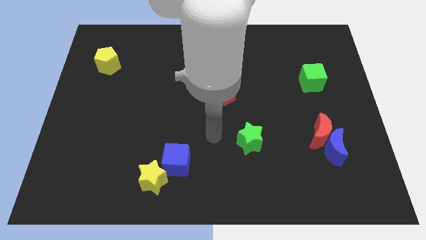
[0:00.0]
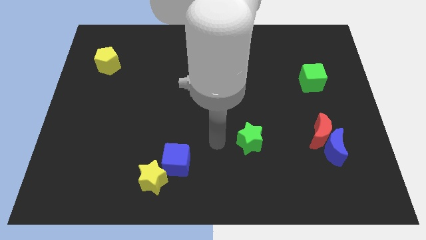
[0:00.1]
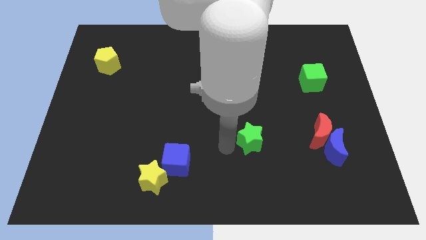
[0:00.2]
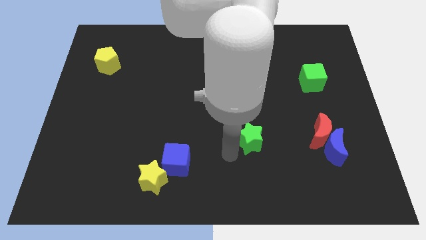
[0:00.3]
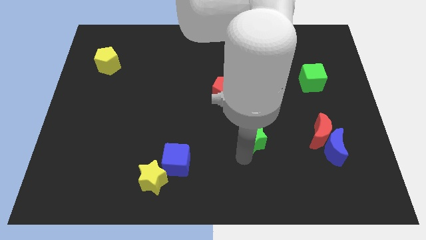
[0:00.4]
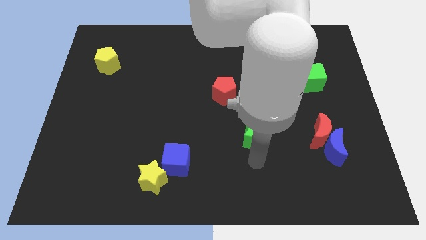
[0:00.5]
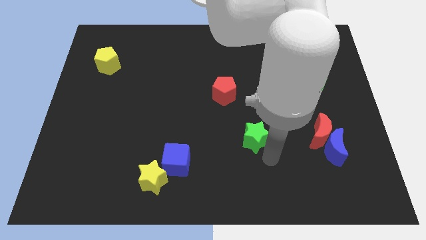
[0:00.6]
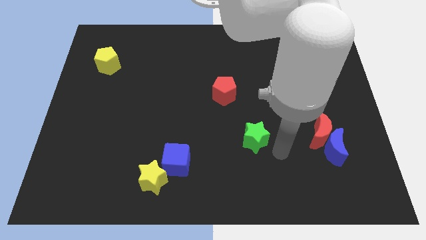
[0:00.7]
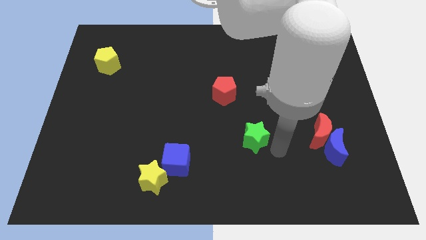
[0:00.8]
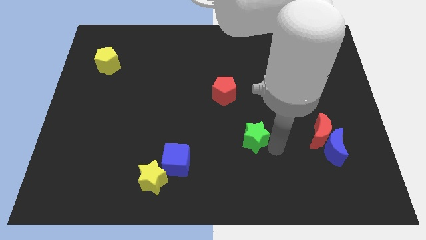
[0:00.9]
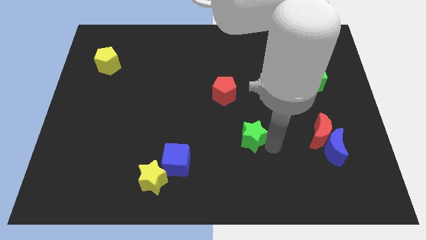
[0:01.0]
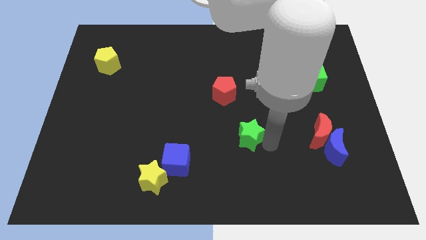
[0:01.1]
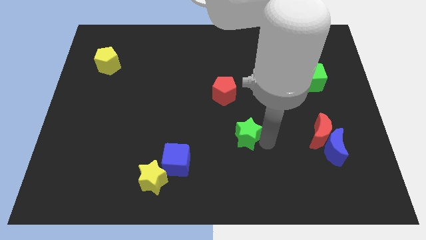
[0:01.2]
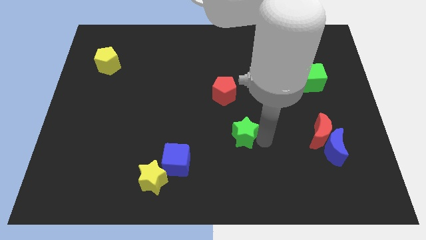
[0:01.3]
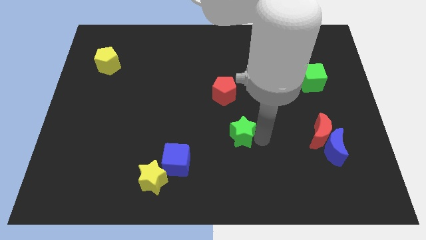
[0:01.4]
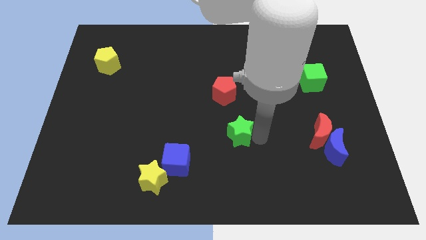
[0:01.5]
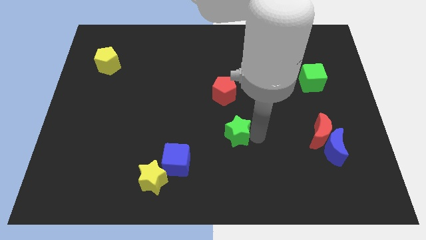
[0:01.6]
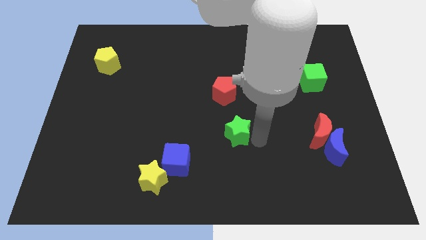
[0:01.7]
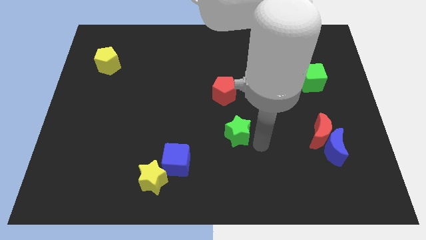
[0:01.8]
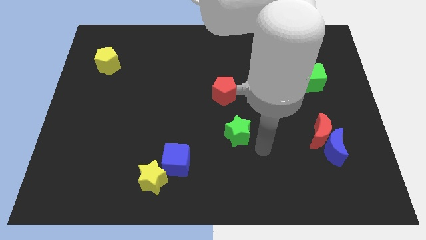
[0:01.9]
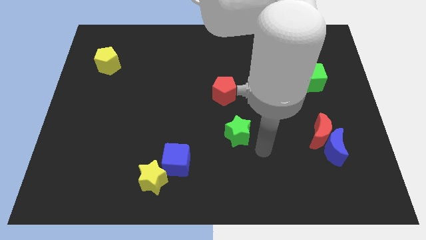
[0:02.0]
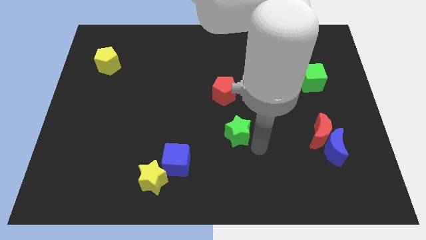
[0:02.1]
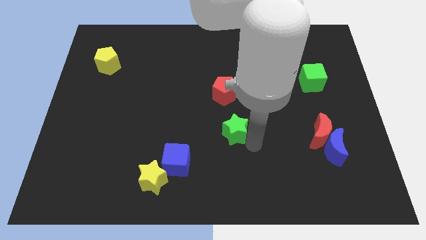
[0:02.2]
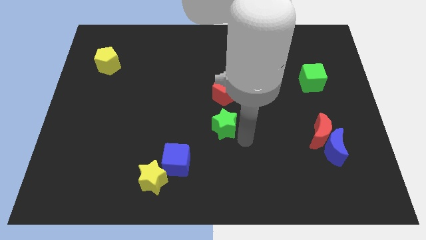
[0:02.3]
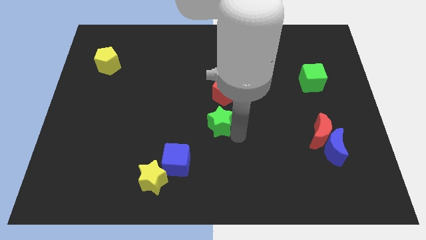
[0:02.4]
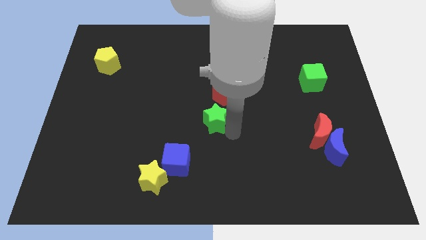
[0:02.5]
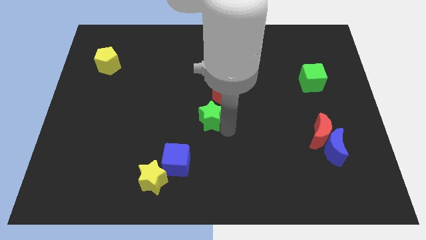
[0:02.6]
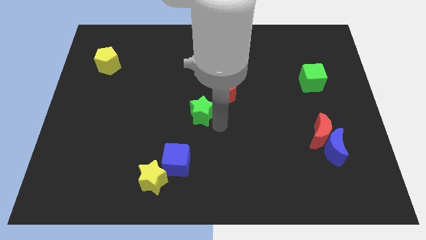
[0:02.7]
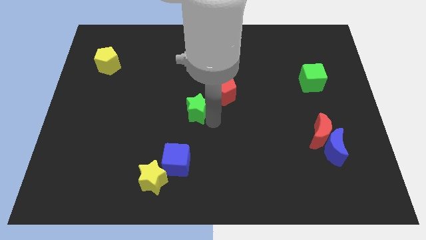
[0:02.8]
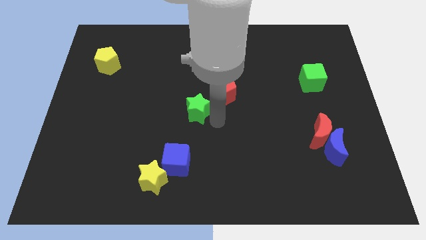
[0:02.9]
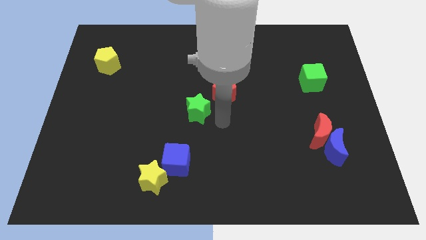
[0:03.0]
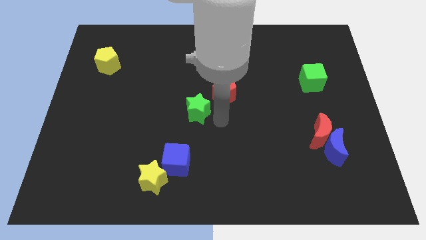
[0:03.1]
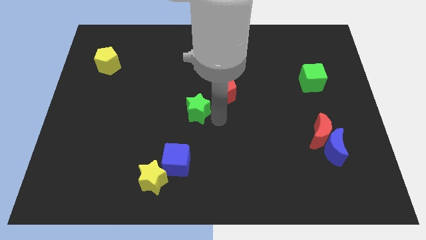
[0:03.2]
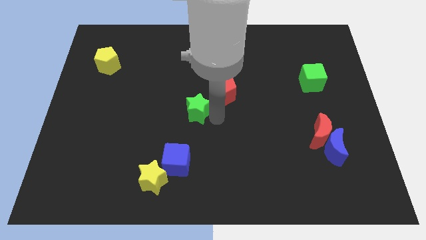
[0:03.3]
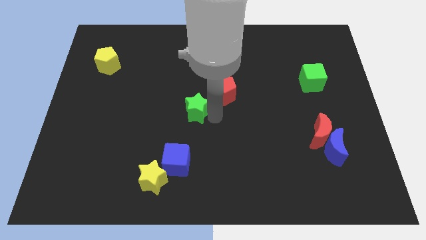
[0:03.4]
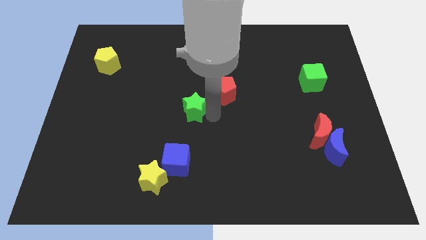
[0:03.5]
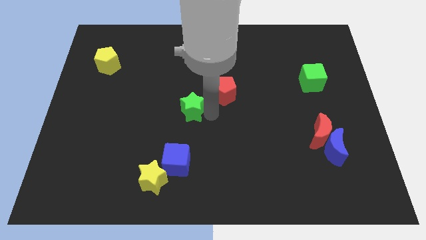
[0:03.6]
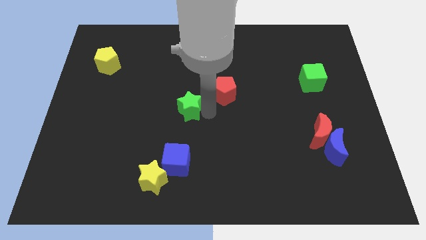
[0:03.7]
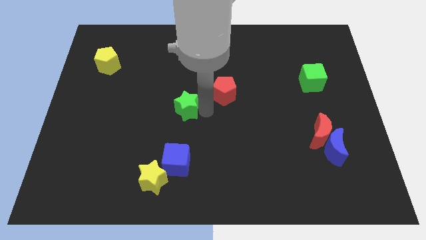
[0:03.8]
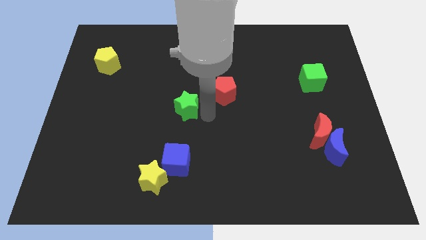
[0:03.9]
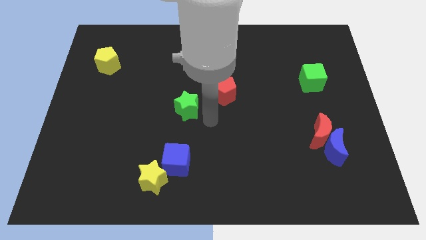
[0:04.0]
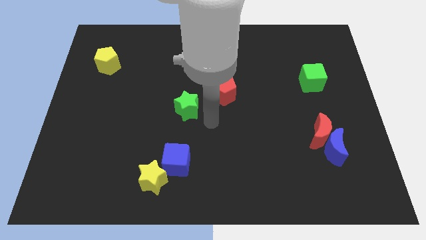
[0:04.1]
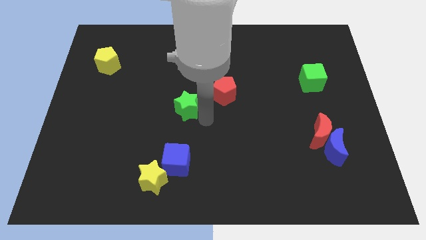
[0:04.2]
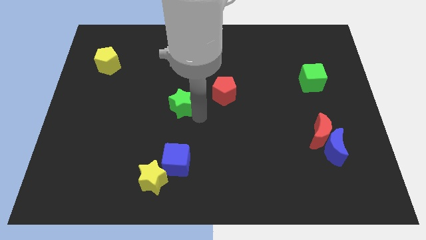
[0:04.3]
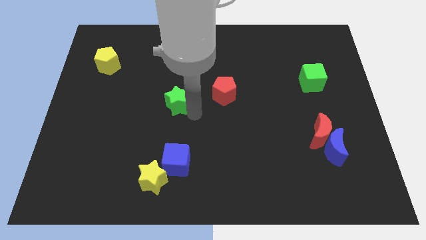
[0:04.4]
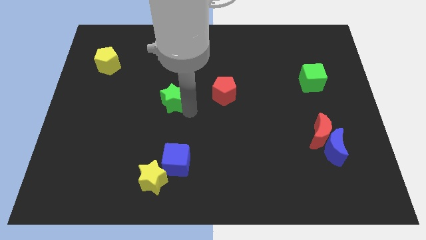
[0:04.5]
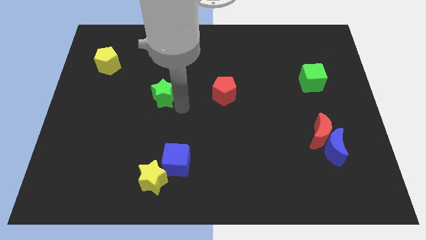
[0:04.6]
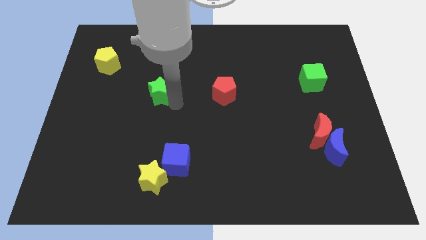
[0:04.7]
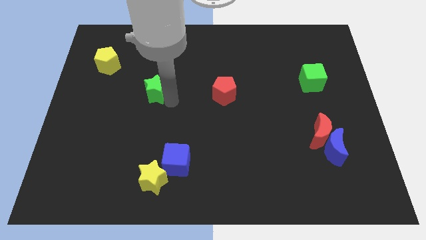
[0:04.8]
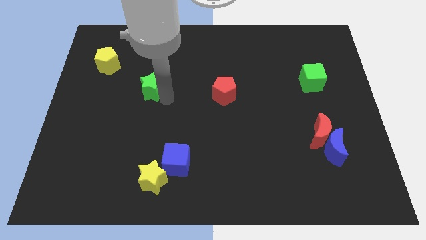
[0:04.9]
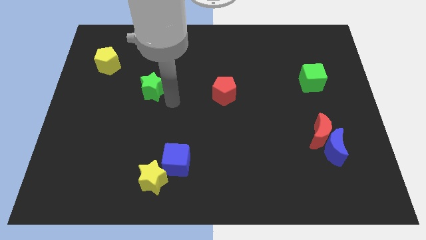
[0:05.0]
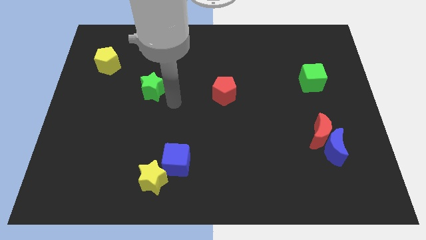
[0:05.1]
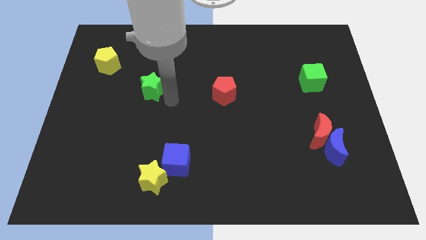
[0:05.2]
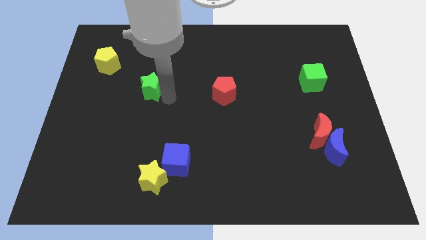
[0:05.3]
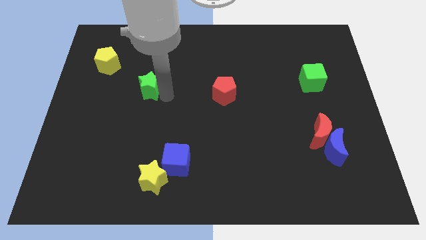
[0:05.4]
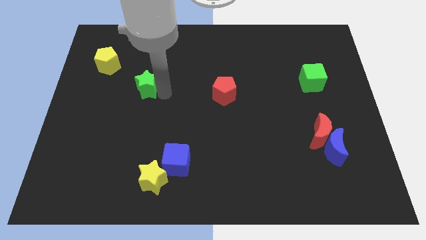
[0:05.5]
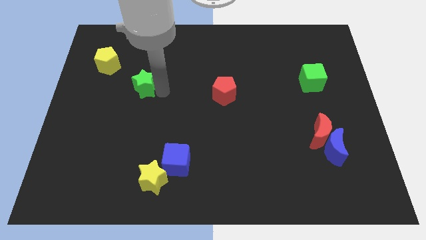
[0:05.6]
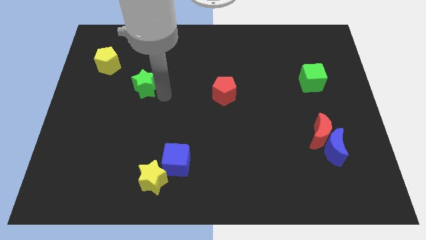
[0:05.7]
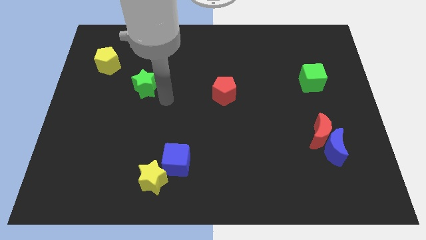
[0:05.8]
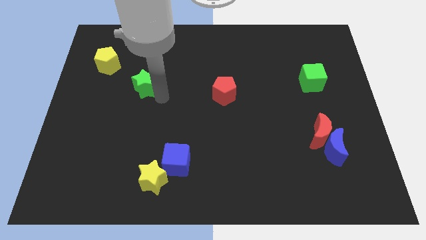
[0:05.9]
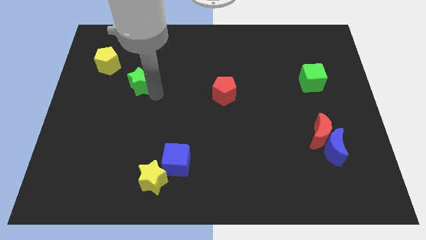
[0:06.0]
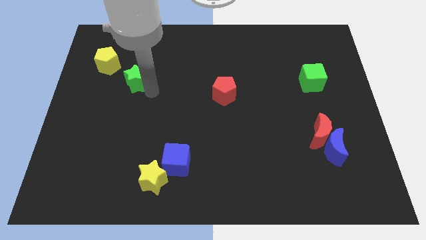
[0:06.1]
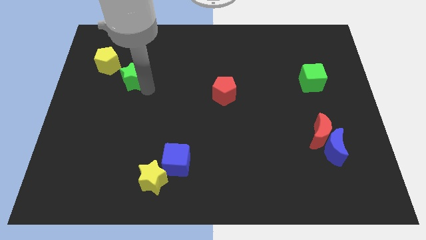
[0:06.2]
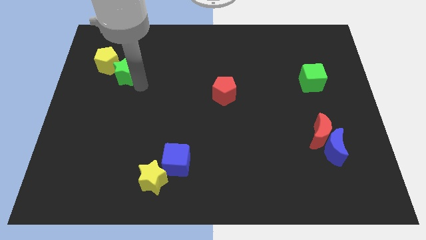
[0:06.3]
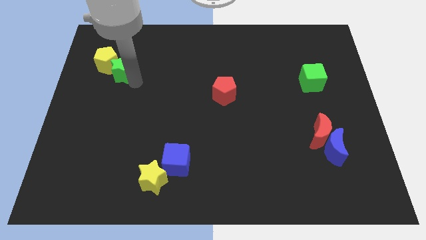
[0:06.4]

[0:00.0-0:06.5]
move the green star next to the yellow pentagon

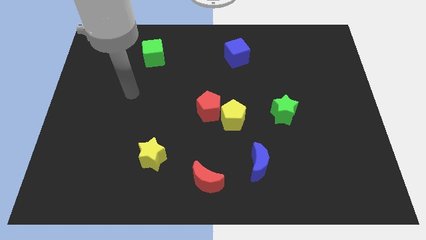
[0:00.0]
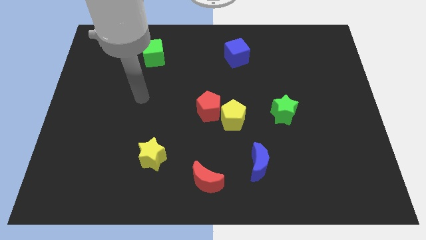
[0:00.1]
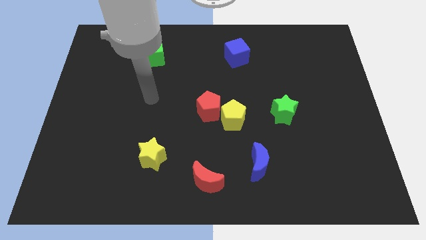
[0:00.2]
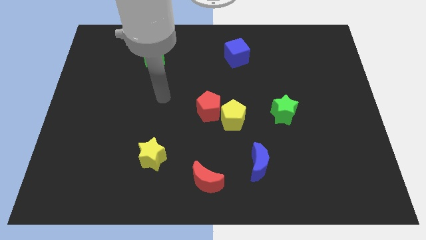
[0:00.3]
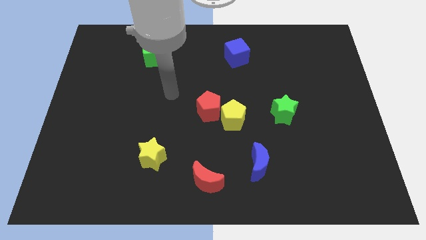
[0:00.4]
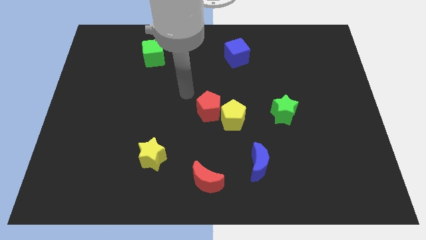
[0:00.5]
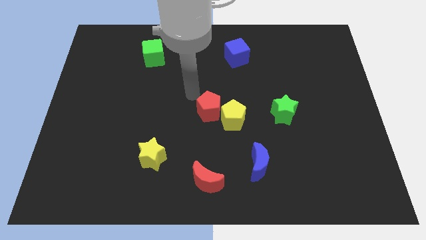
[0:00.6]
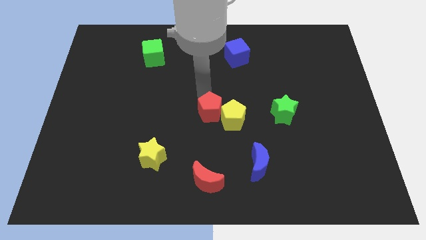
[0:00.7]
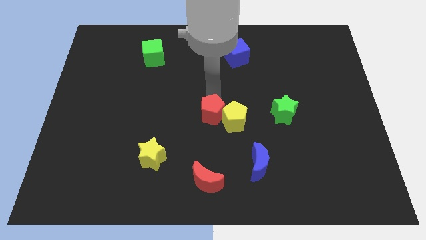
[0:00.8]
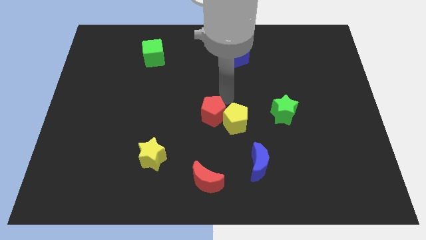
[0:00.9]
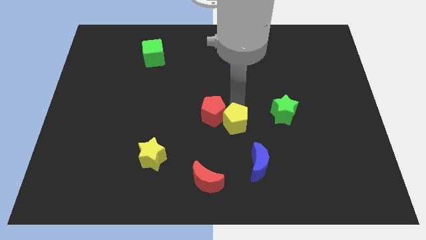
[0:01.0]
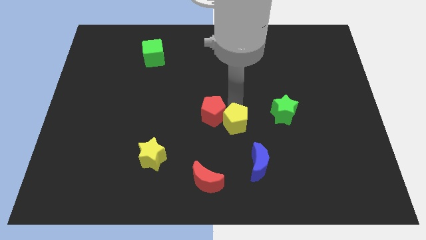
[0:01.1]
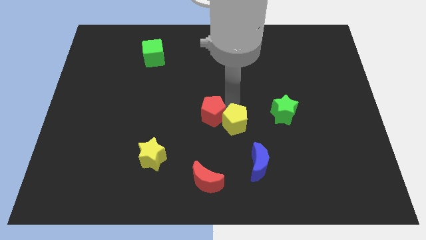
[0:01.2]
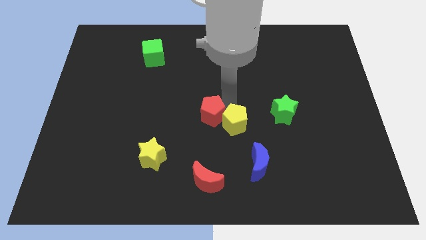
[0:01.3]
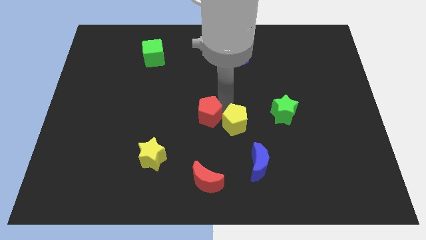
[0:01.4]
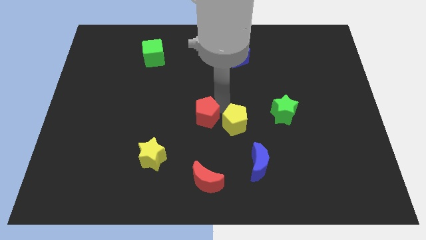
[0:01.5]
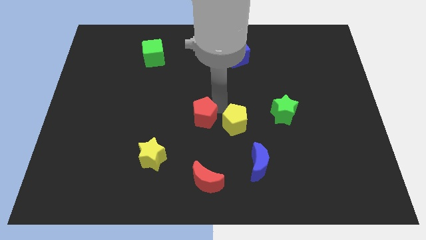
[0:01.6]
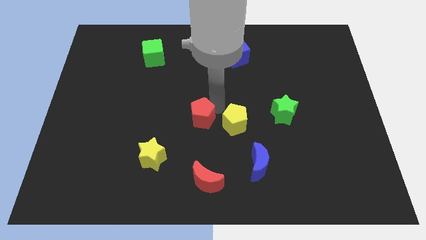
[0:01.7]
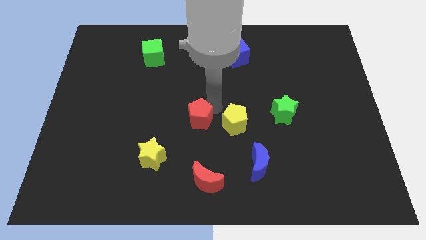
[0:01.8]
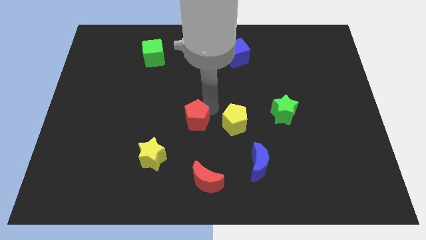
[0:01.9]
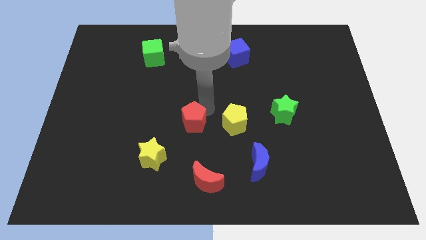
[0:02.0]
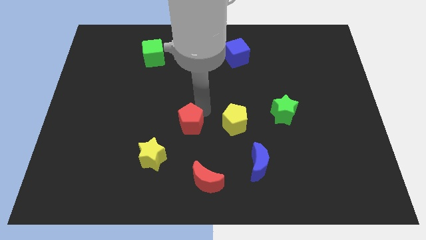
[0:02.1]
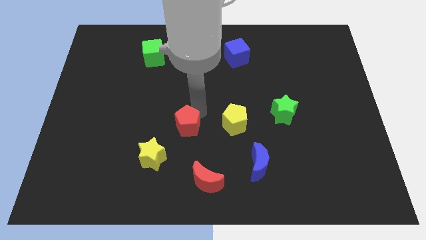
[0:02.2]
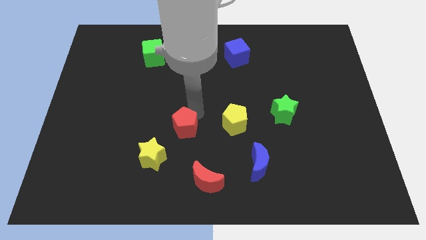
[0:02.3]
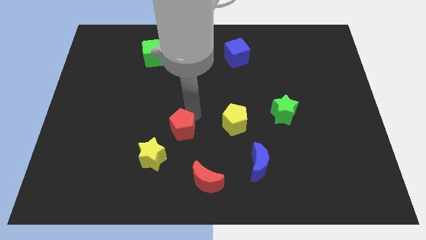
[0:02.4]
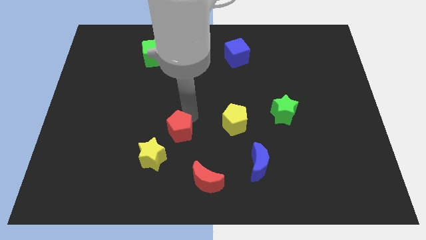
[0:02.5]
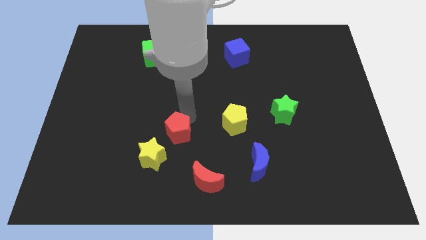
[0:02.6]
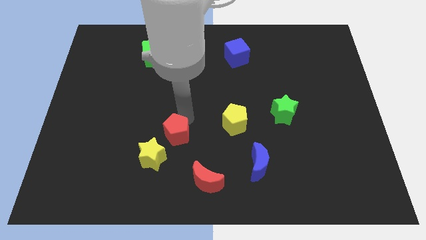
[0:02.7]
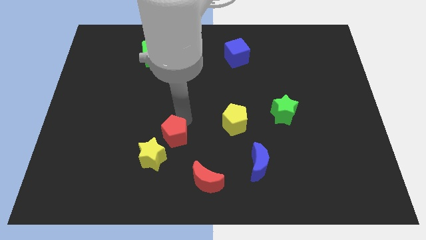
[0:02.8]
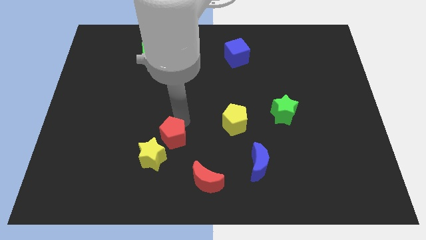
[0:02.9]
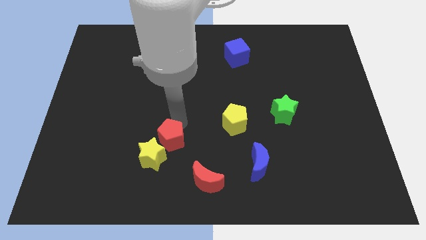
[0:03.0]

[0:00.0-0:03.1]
move the red pentagon next to the yellow star
